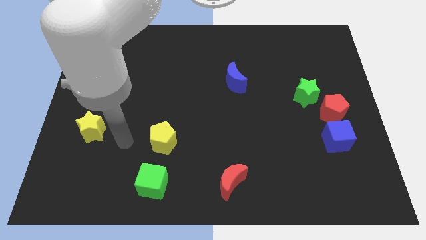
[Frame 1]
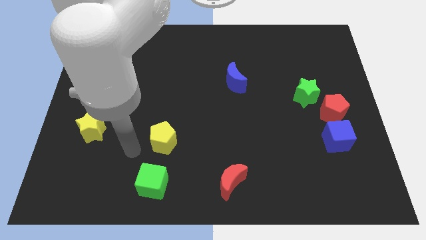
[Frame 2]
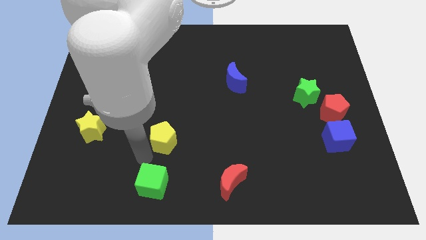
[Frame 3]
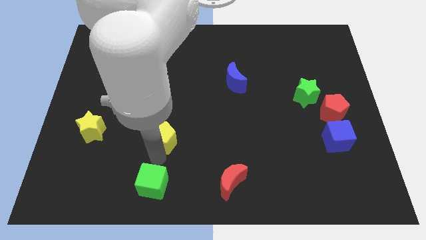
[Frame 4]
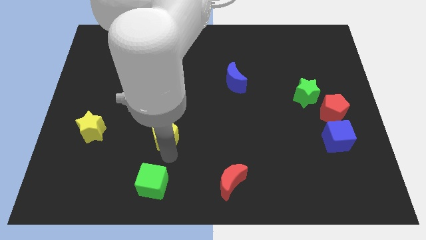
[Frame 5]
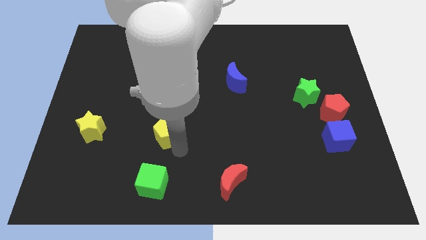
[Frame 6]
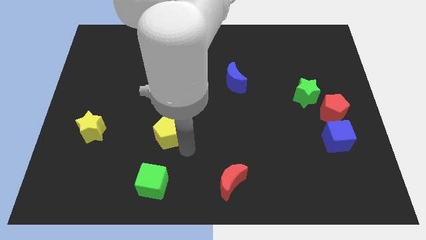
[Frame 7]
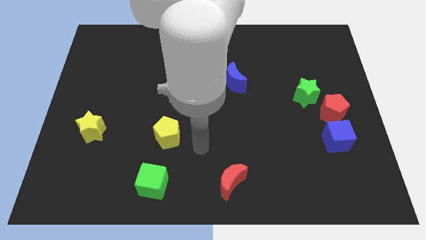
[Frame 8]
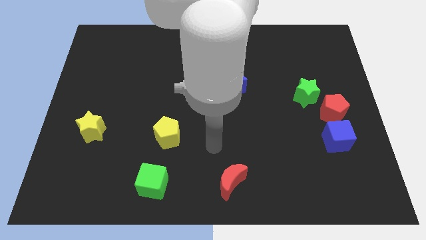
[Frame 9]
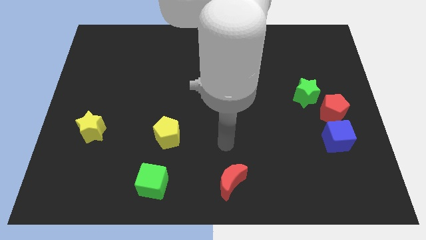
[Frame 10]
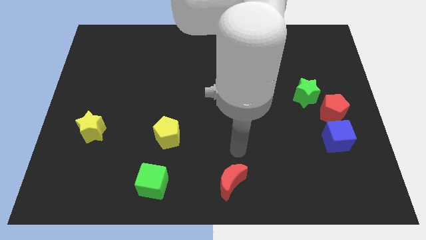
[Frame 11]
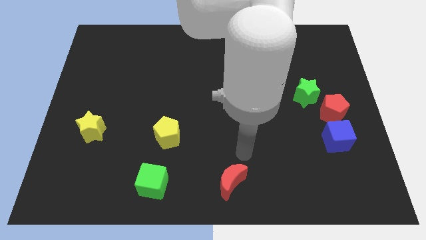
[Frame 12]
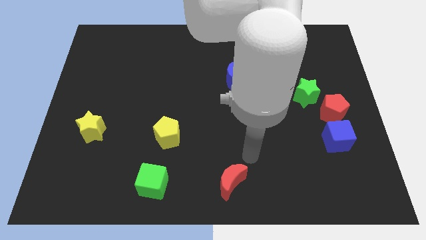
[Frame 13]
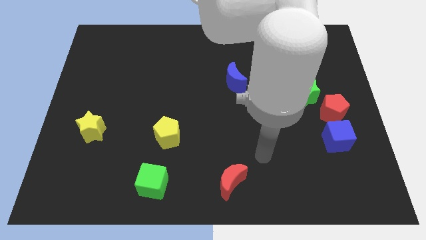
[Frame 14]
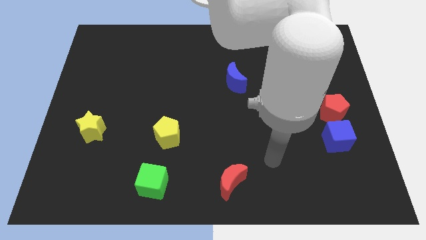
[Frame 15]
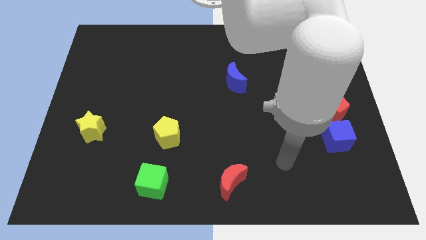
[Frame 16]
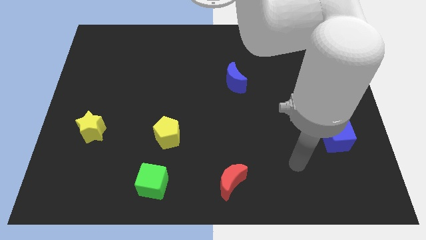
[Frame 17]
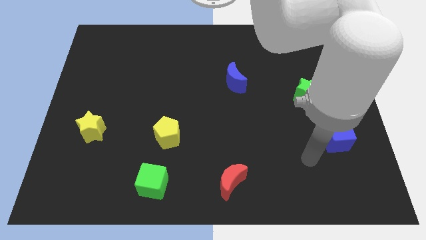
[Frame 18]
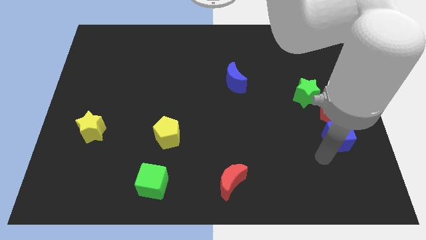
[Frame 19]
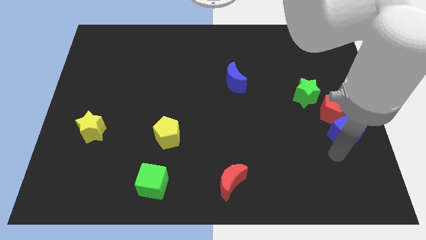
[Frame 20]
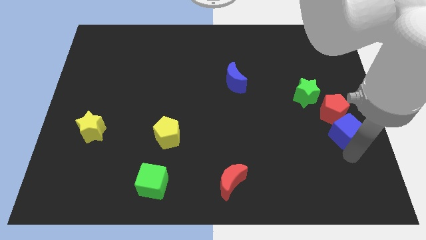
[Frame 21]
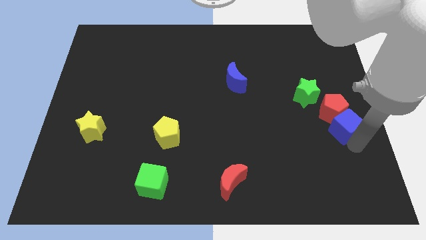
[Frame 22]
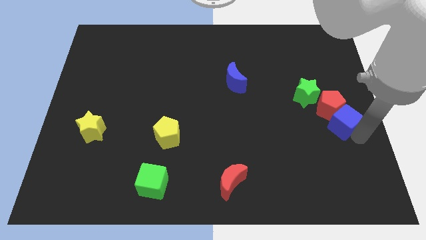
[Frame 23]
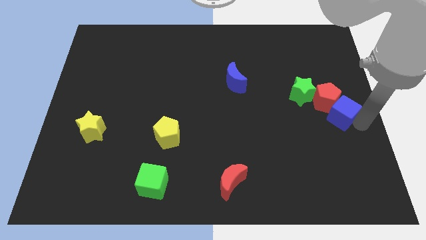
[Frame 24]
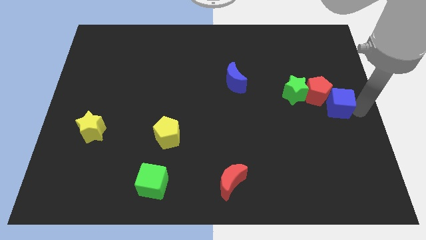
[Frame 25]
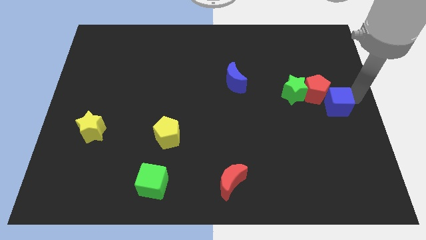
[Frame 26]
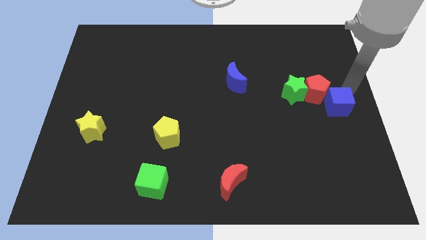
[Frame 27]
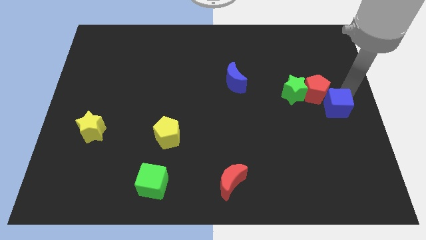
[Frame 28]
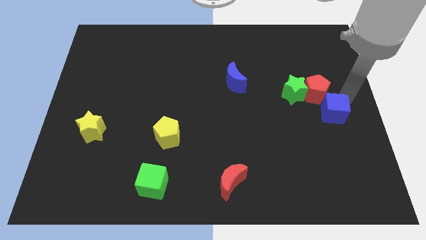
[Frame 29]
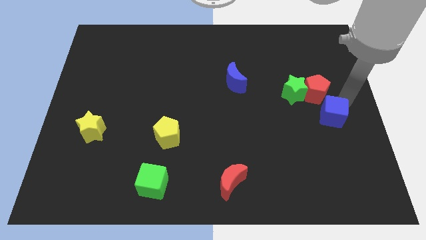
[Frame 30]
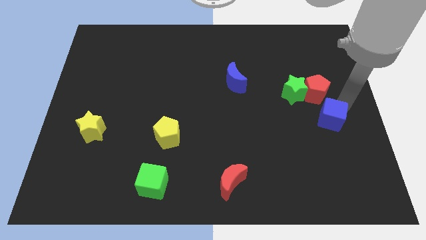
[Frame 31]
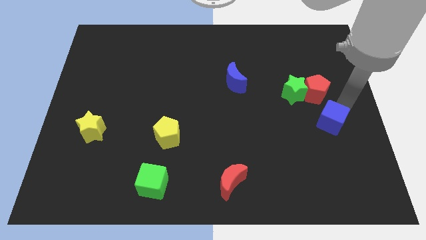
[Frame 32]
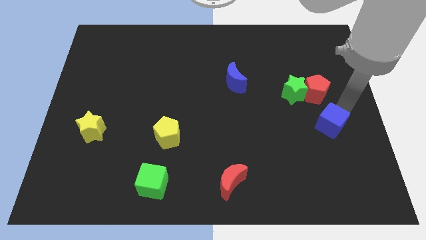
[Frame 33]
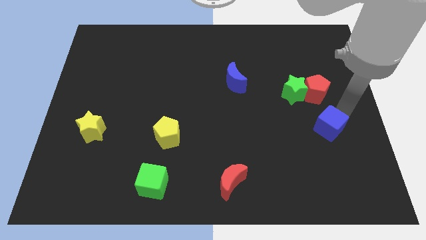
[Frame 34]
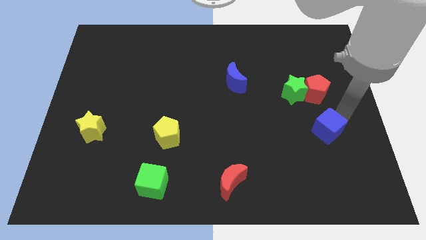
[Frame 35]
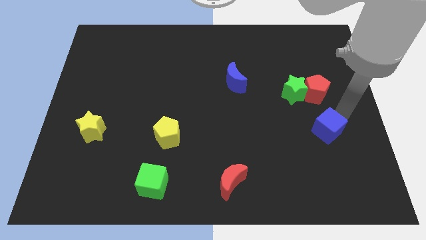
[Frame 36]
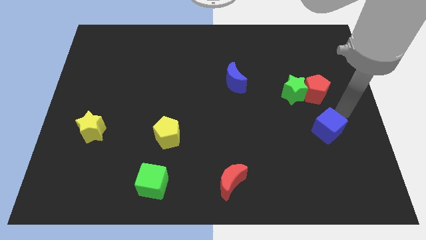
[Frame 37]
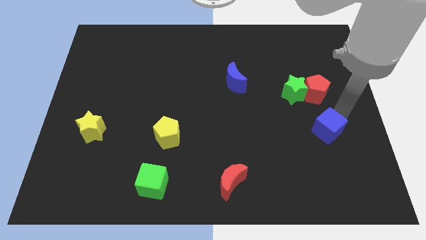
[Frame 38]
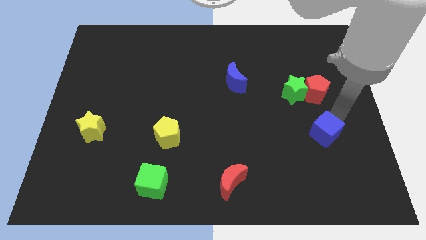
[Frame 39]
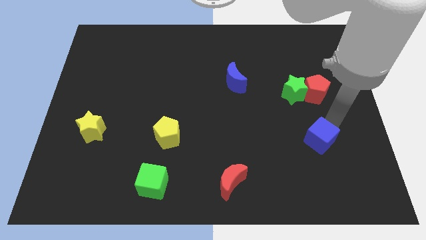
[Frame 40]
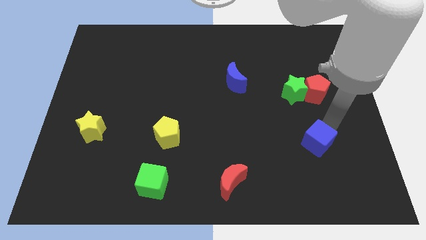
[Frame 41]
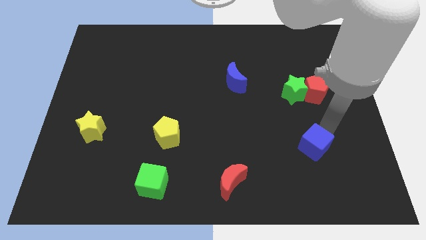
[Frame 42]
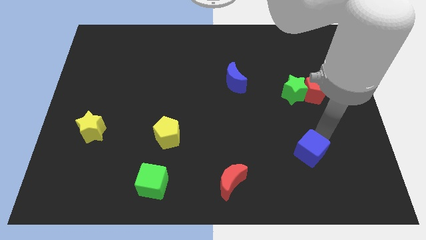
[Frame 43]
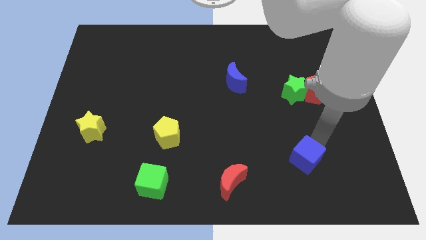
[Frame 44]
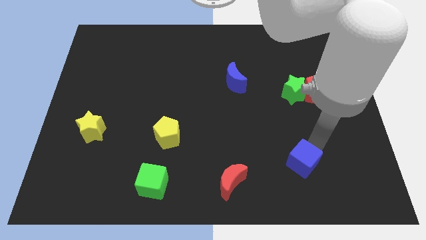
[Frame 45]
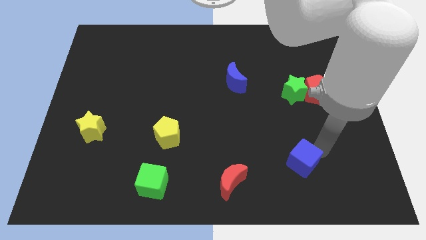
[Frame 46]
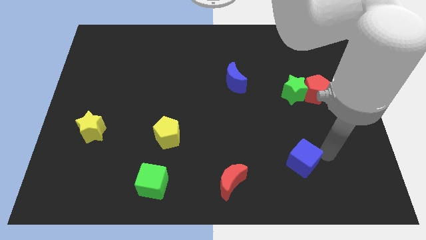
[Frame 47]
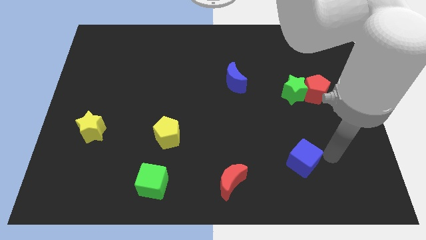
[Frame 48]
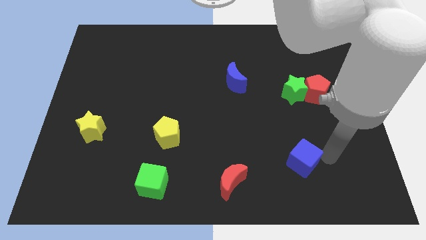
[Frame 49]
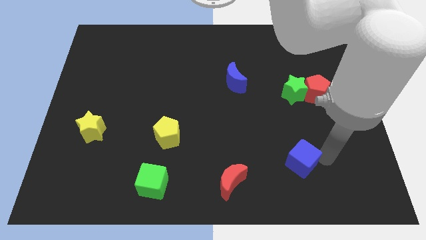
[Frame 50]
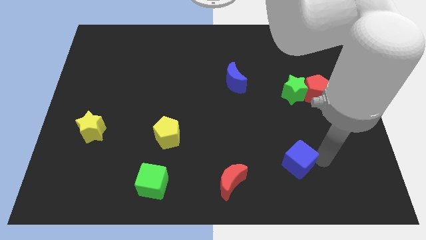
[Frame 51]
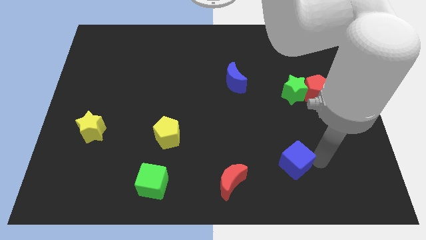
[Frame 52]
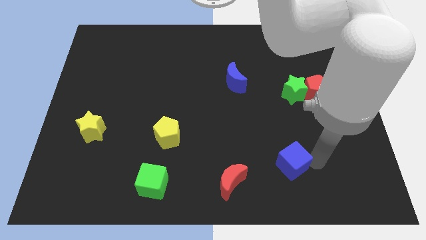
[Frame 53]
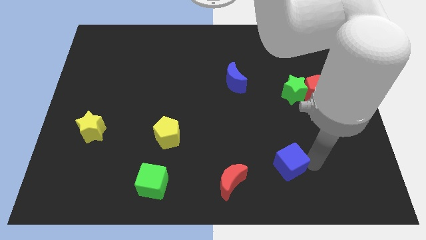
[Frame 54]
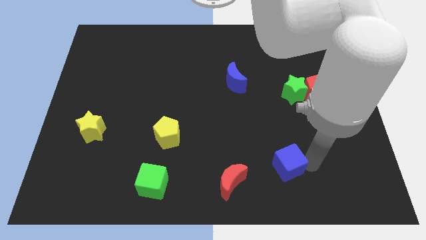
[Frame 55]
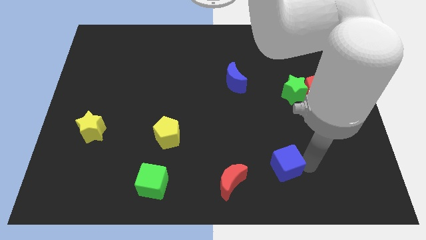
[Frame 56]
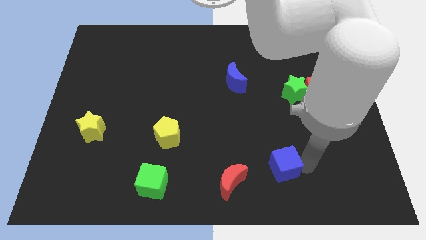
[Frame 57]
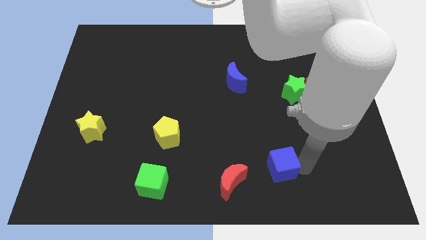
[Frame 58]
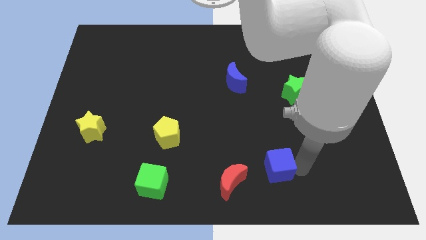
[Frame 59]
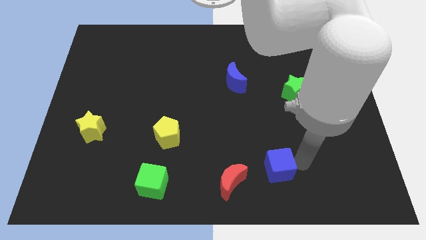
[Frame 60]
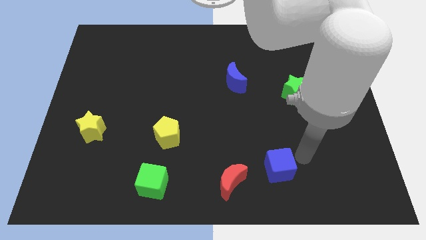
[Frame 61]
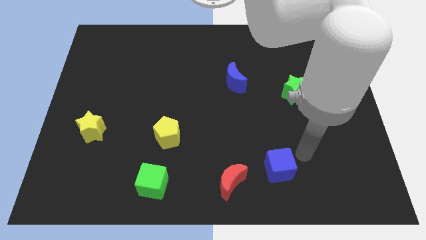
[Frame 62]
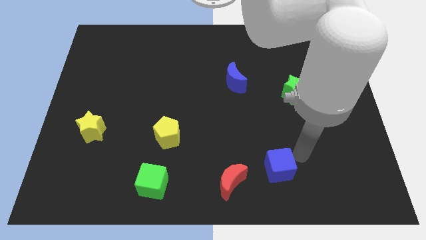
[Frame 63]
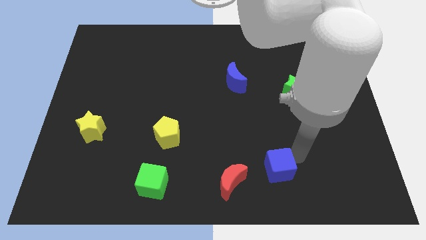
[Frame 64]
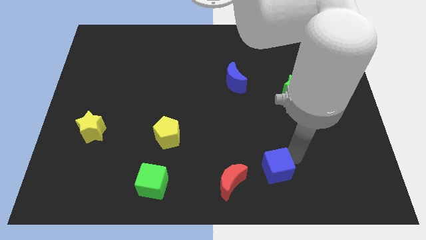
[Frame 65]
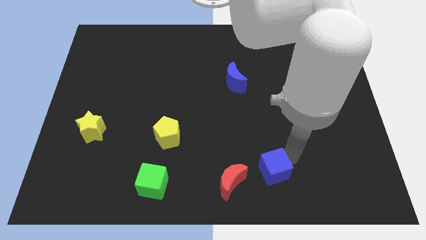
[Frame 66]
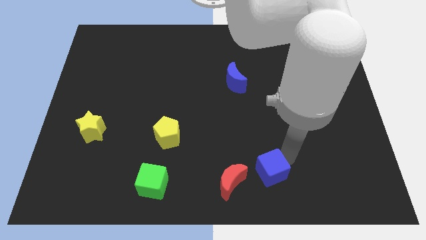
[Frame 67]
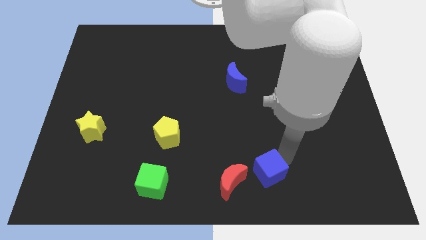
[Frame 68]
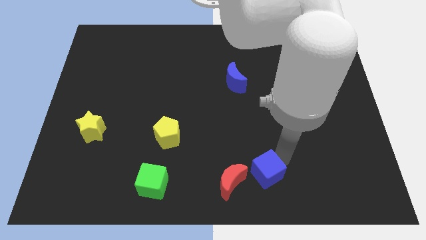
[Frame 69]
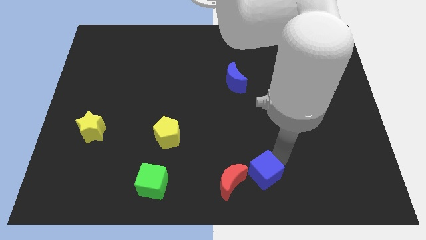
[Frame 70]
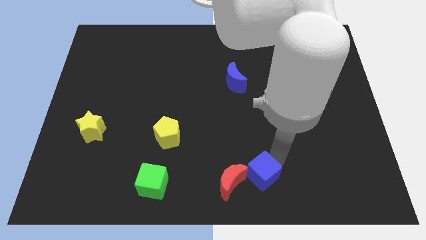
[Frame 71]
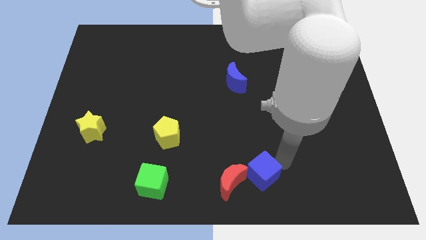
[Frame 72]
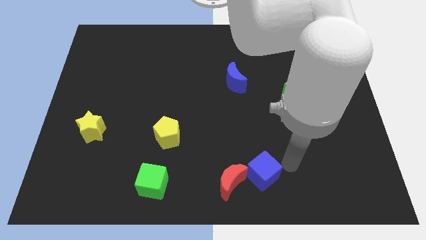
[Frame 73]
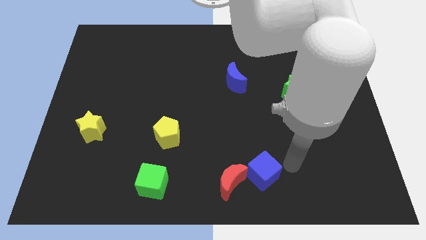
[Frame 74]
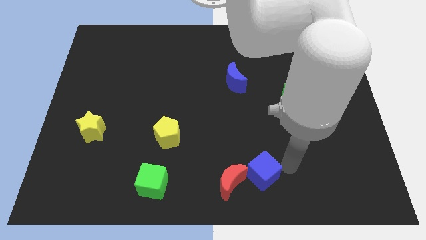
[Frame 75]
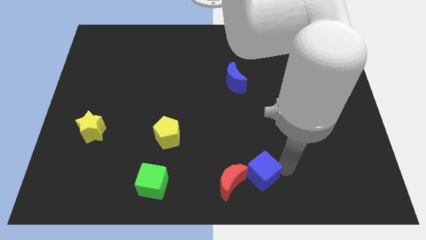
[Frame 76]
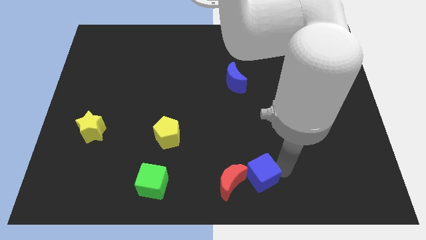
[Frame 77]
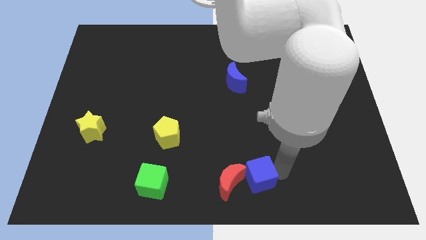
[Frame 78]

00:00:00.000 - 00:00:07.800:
slide the blue cube towards the red moon
